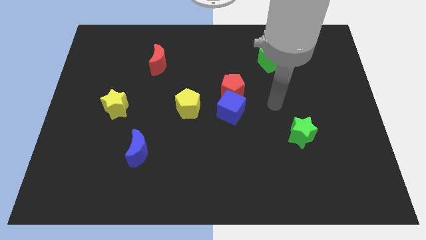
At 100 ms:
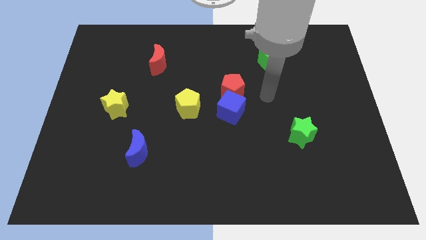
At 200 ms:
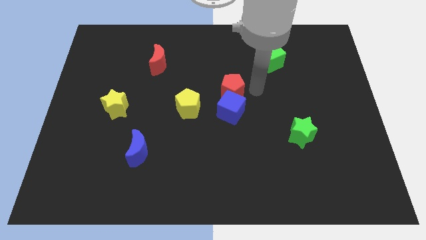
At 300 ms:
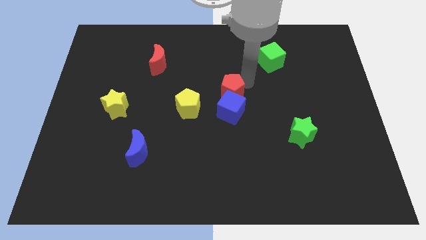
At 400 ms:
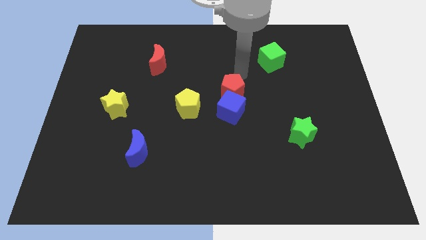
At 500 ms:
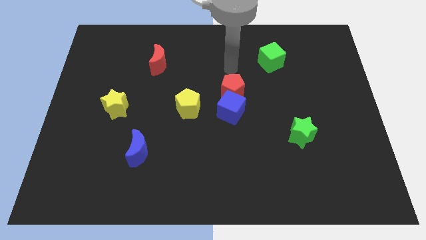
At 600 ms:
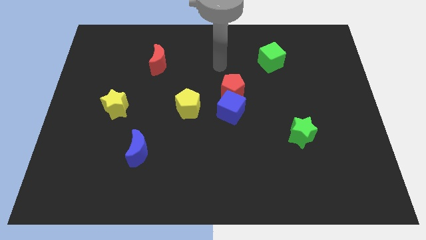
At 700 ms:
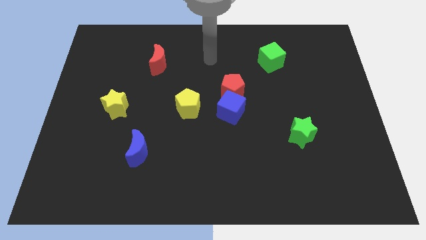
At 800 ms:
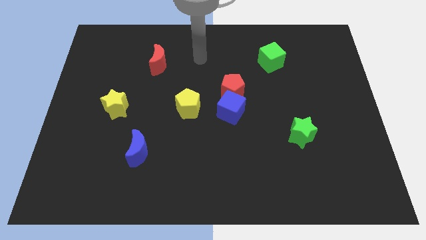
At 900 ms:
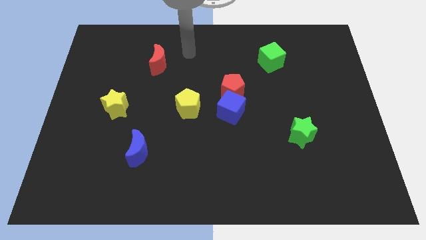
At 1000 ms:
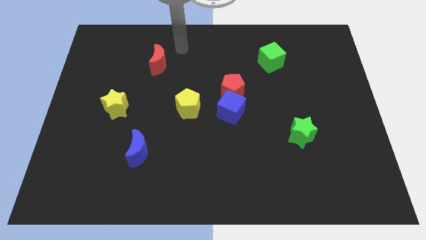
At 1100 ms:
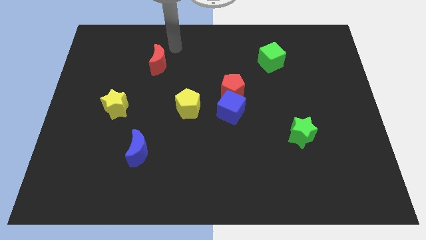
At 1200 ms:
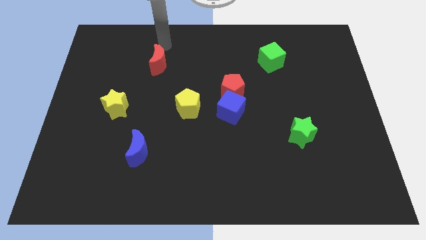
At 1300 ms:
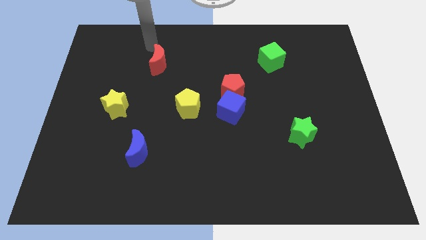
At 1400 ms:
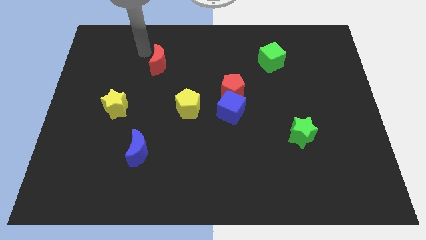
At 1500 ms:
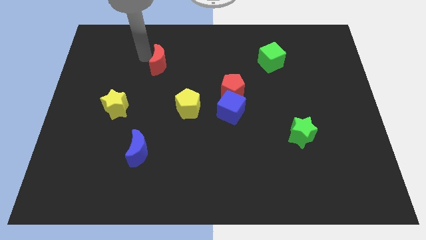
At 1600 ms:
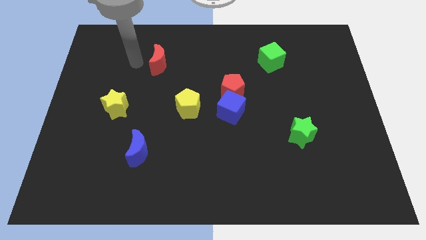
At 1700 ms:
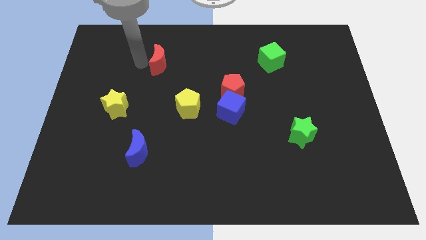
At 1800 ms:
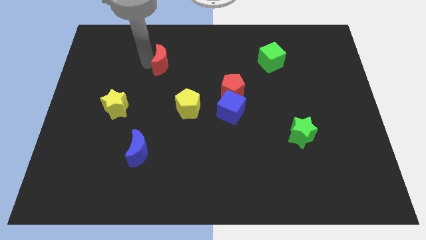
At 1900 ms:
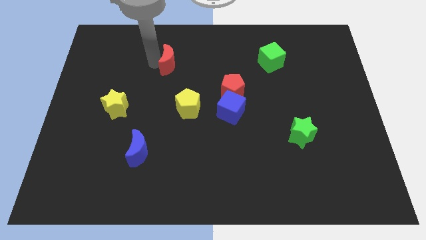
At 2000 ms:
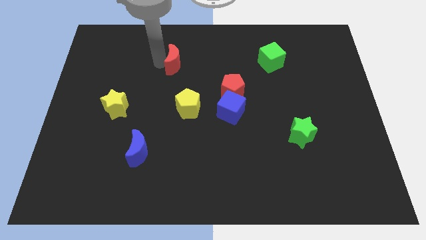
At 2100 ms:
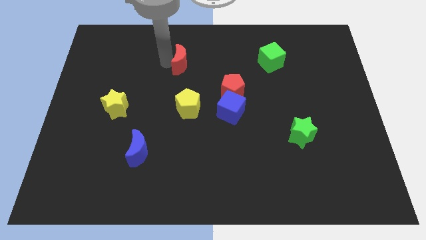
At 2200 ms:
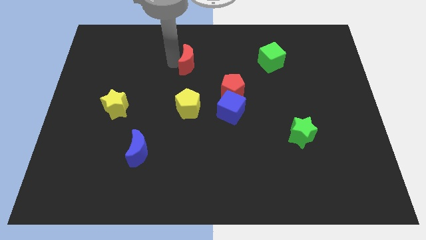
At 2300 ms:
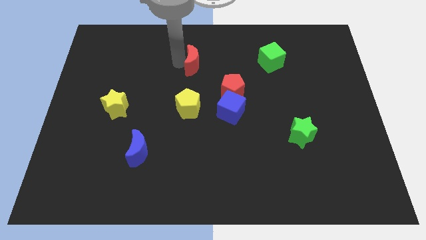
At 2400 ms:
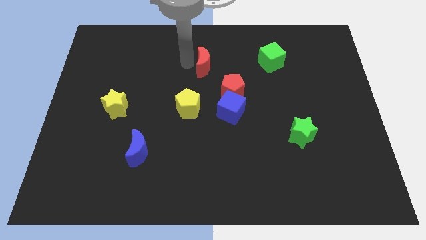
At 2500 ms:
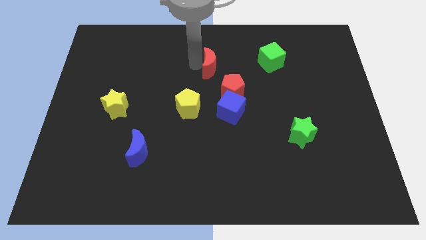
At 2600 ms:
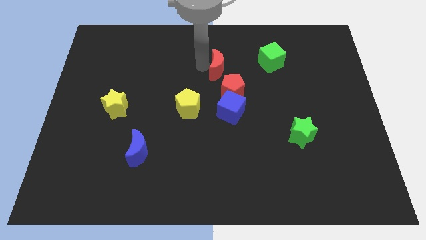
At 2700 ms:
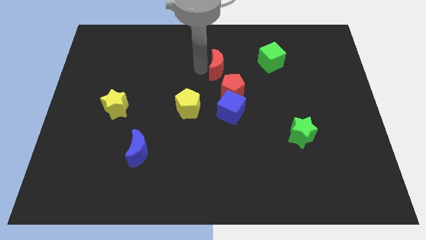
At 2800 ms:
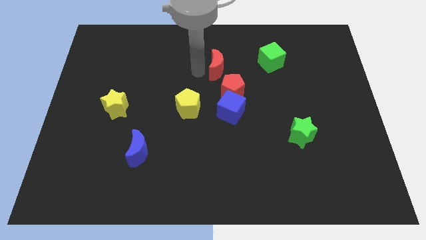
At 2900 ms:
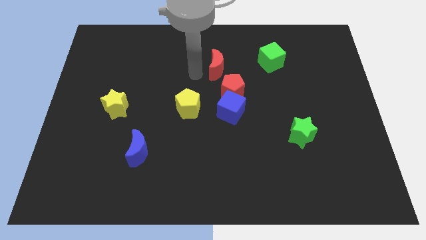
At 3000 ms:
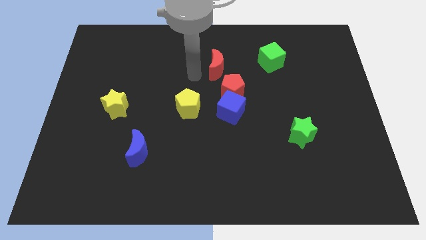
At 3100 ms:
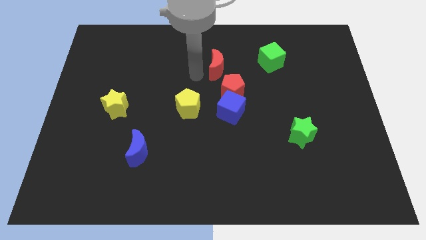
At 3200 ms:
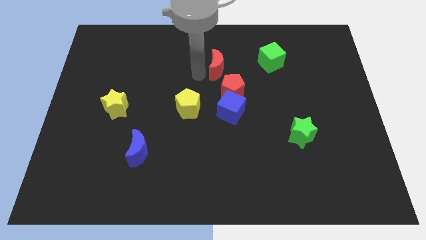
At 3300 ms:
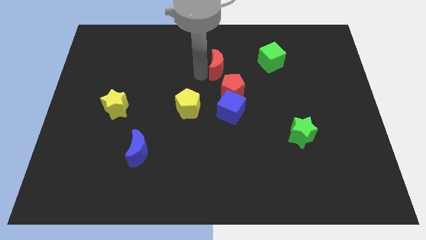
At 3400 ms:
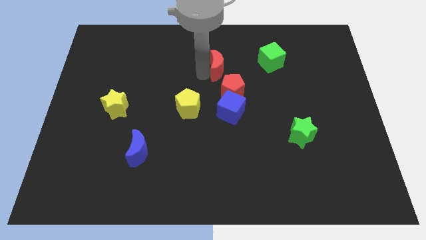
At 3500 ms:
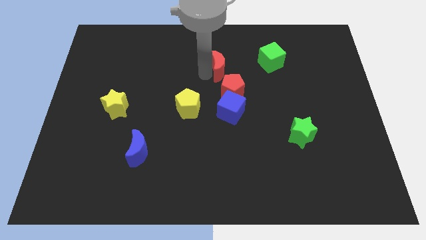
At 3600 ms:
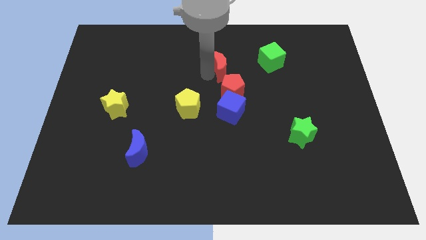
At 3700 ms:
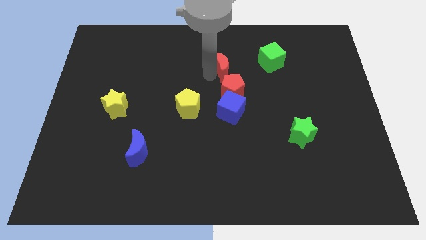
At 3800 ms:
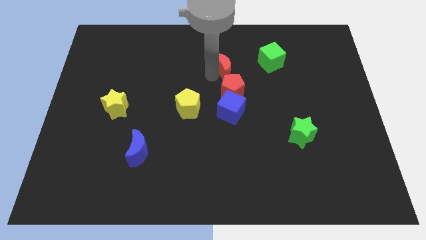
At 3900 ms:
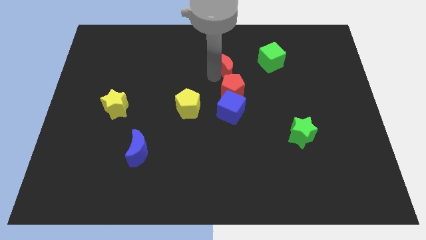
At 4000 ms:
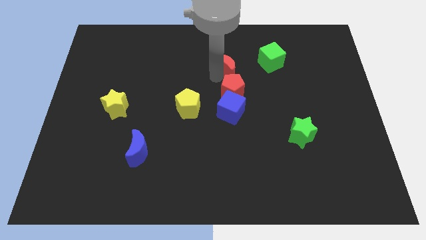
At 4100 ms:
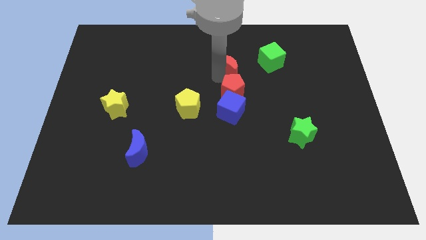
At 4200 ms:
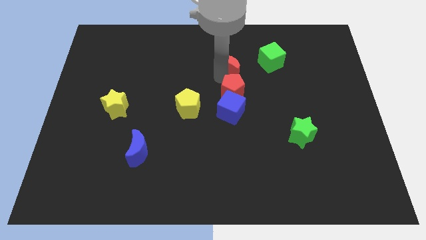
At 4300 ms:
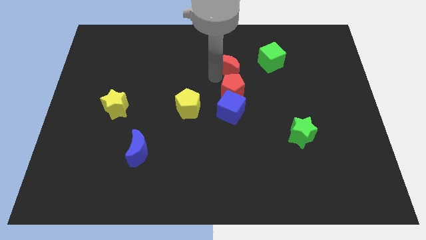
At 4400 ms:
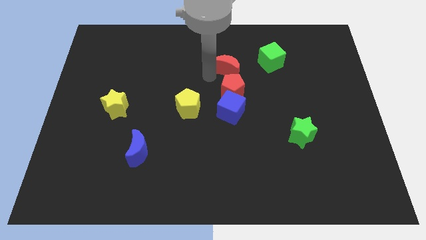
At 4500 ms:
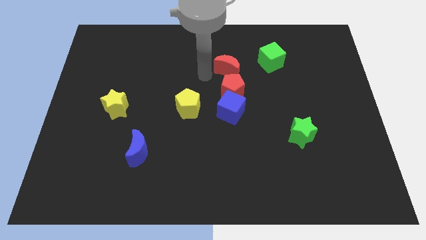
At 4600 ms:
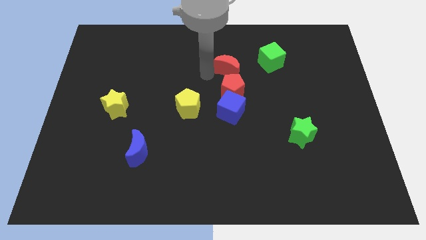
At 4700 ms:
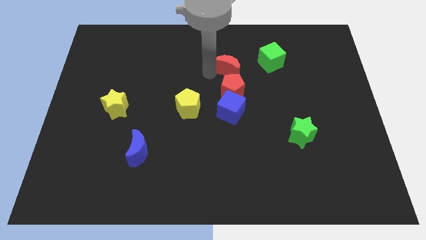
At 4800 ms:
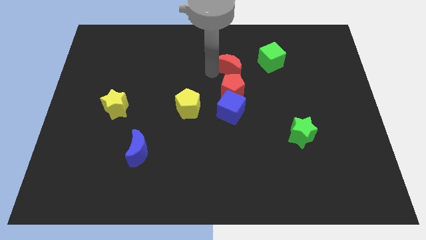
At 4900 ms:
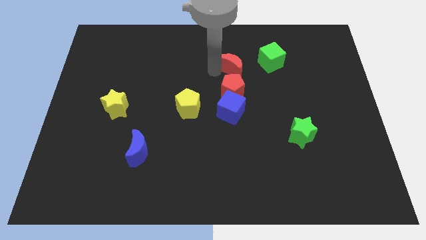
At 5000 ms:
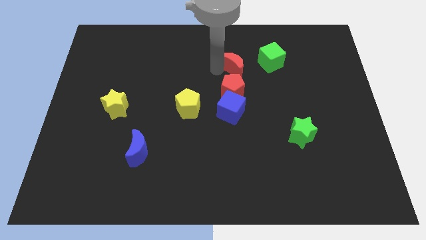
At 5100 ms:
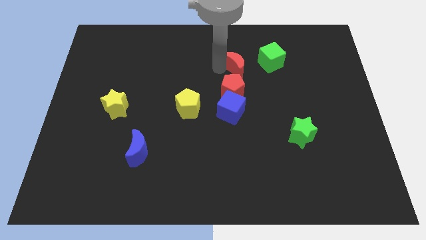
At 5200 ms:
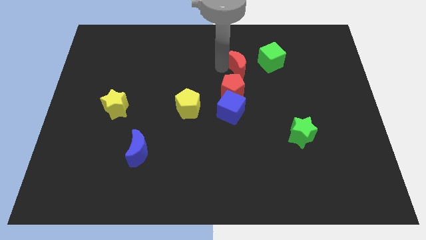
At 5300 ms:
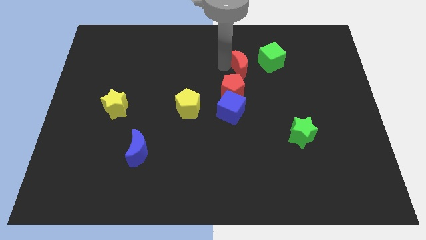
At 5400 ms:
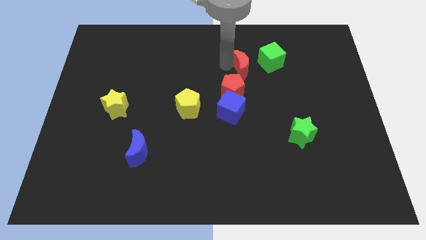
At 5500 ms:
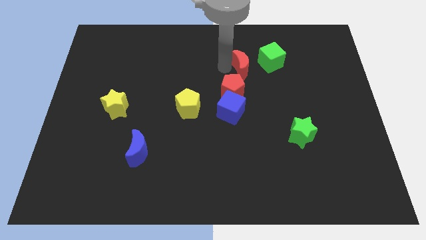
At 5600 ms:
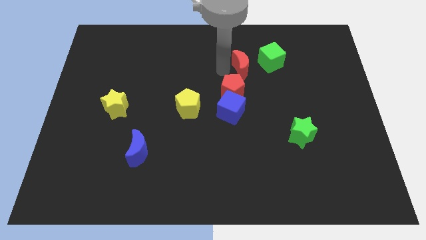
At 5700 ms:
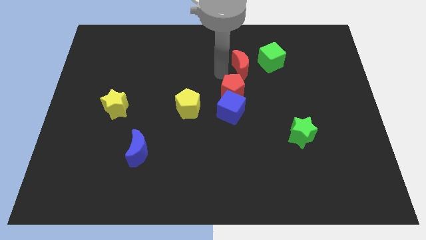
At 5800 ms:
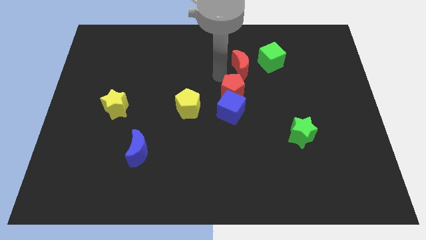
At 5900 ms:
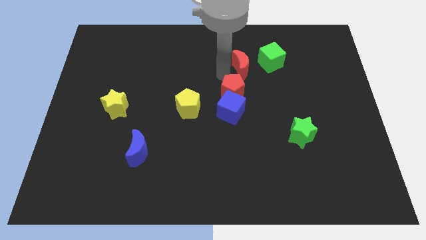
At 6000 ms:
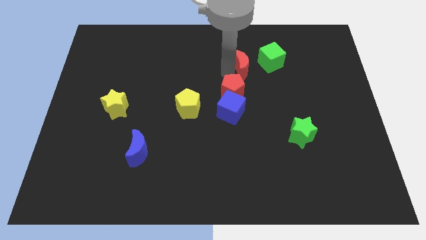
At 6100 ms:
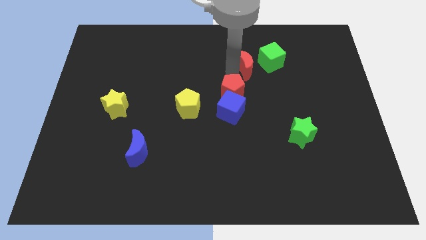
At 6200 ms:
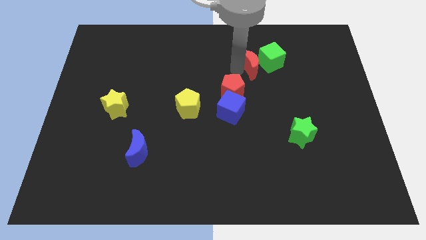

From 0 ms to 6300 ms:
slide the red moon next to the green cube

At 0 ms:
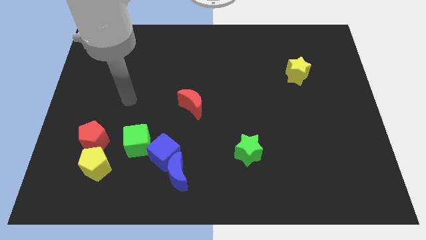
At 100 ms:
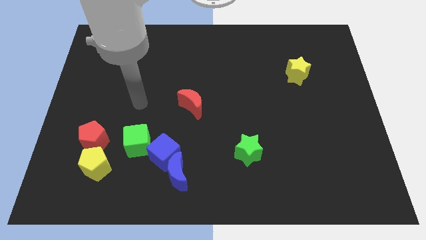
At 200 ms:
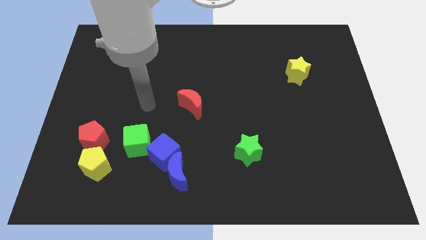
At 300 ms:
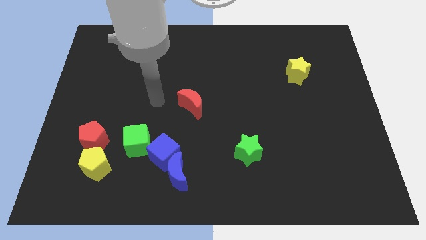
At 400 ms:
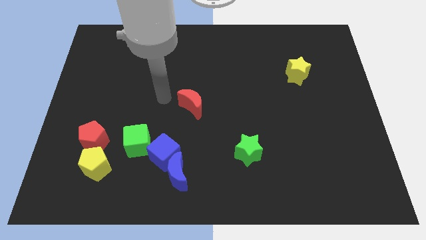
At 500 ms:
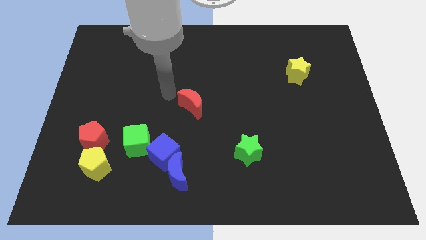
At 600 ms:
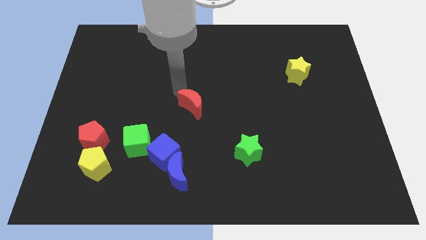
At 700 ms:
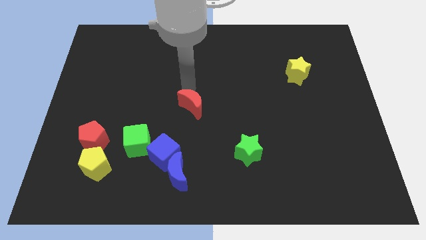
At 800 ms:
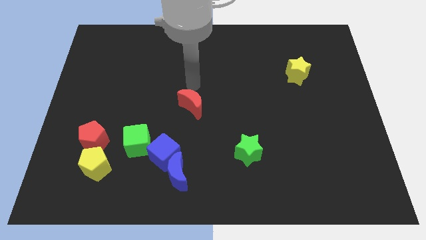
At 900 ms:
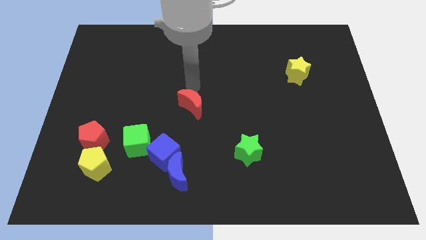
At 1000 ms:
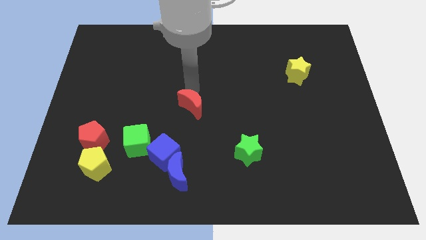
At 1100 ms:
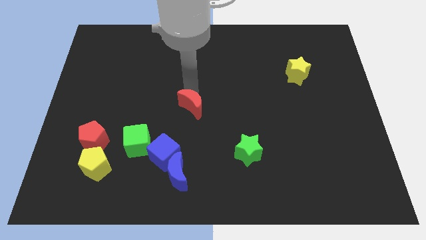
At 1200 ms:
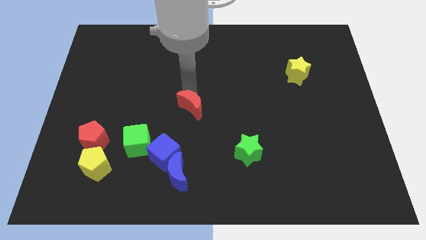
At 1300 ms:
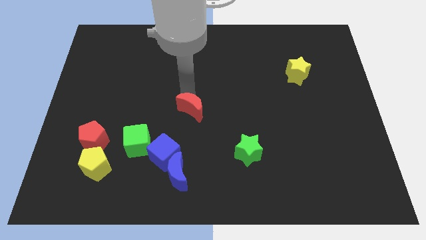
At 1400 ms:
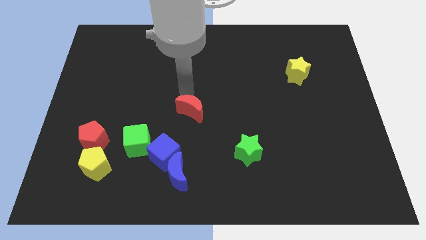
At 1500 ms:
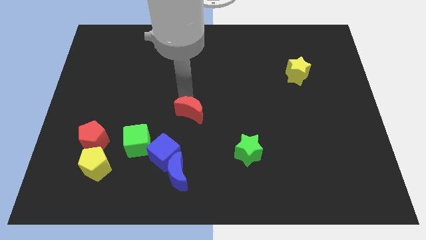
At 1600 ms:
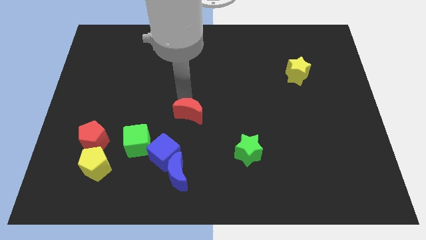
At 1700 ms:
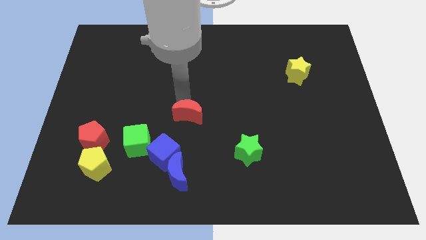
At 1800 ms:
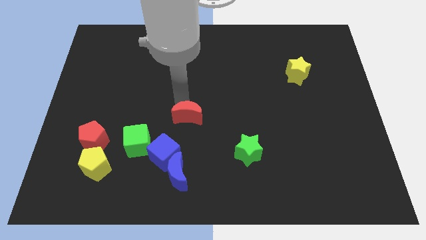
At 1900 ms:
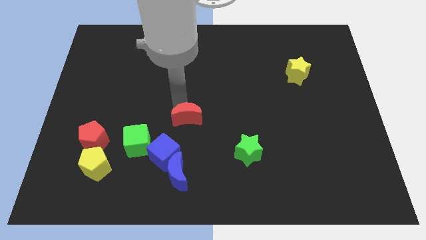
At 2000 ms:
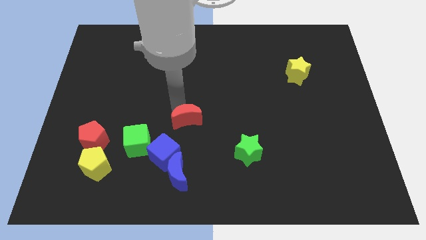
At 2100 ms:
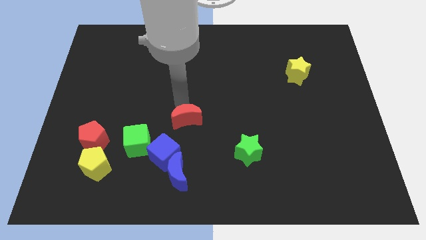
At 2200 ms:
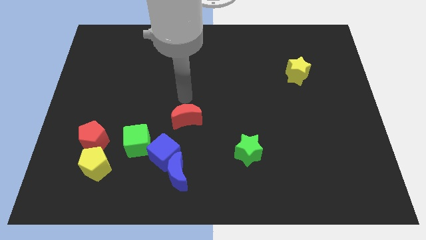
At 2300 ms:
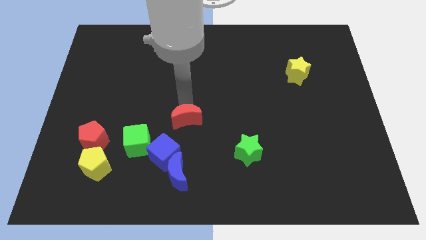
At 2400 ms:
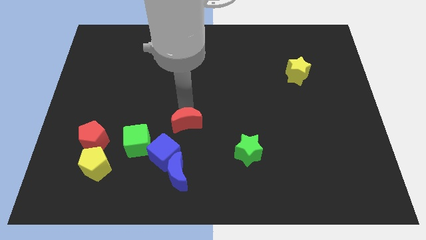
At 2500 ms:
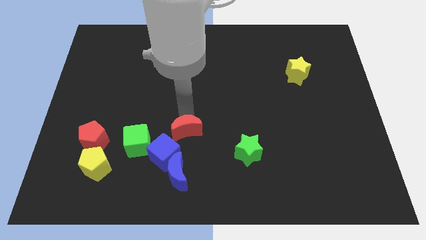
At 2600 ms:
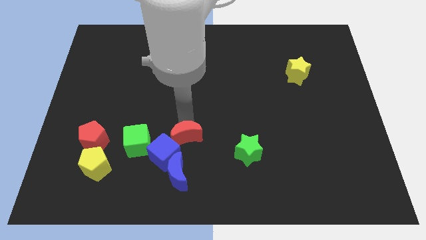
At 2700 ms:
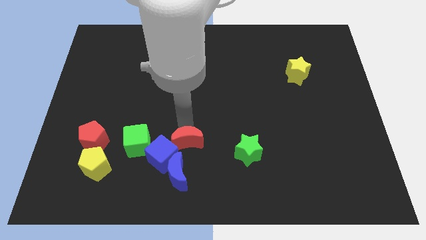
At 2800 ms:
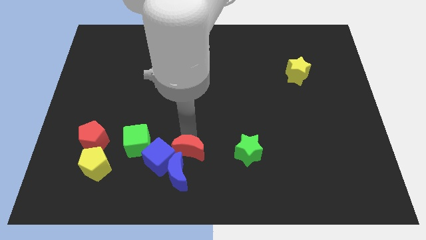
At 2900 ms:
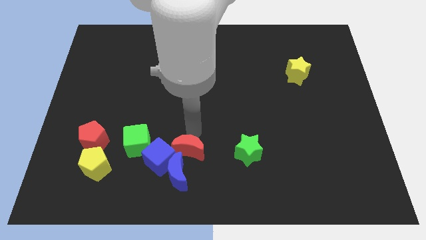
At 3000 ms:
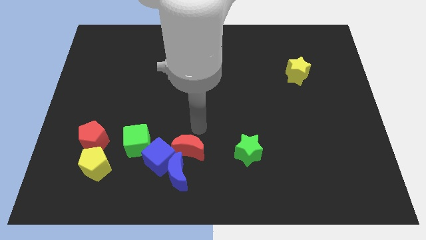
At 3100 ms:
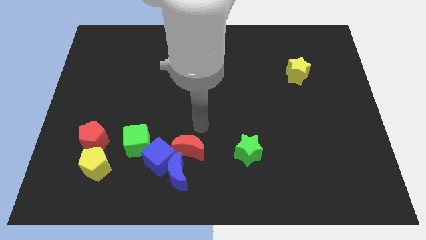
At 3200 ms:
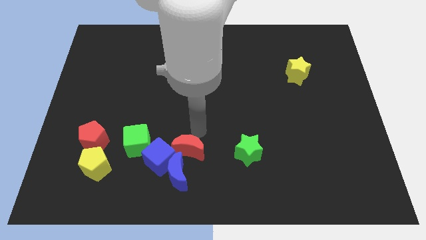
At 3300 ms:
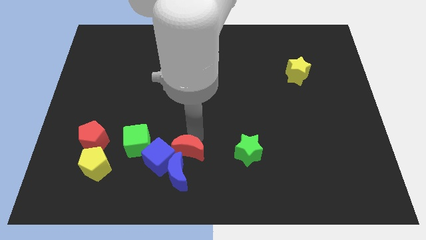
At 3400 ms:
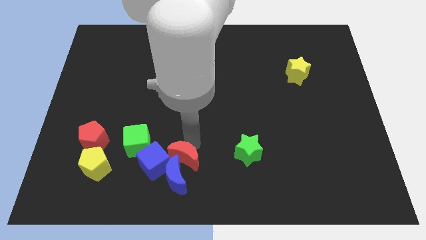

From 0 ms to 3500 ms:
put the red moon to the blue moon
